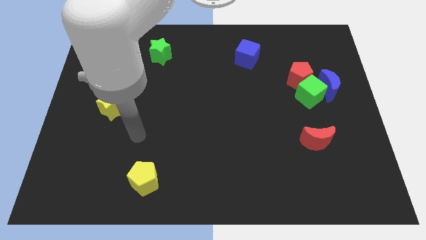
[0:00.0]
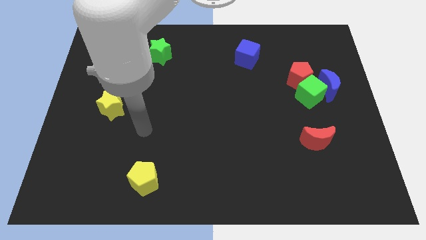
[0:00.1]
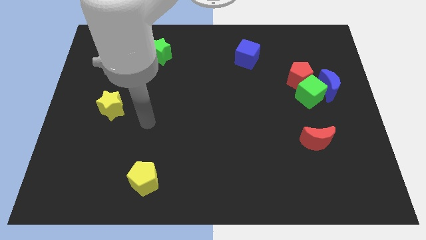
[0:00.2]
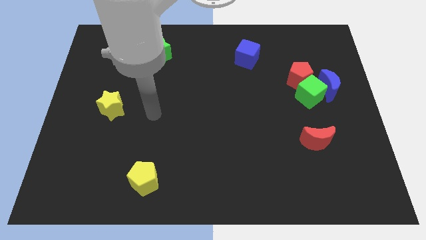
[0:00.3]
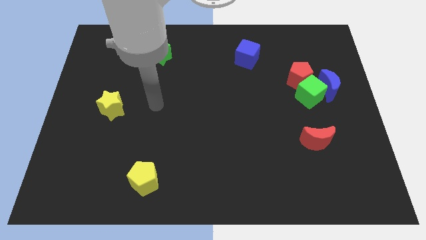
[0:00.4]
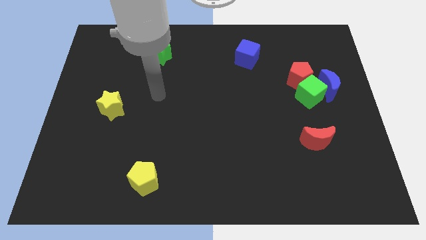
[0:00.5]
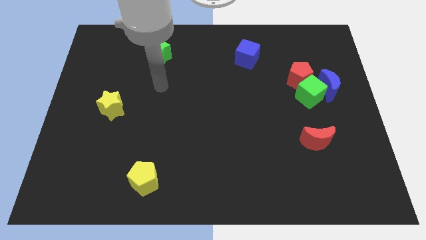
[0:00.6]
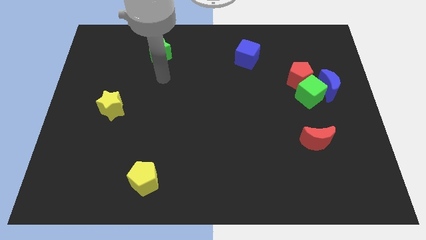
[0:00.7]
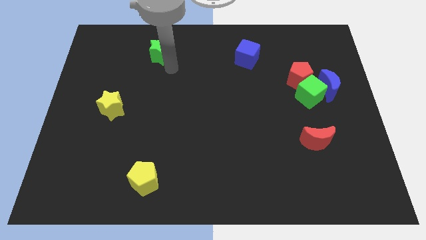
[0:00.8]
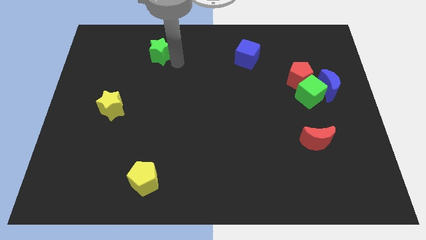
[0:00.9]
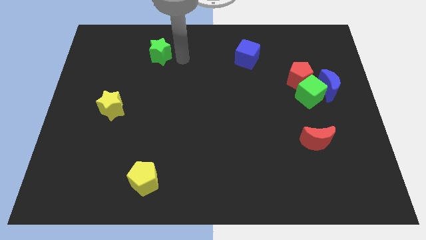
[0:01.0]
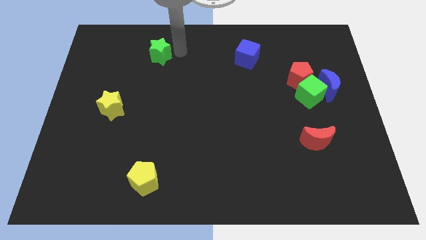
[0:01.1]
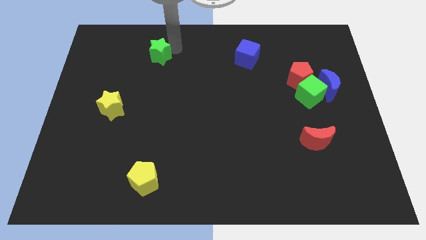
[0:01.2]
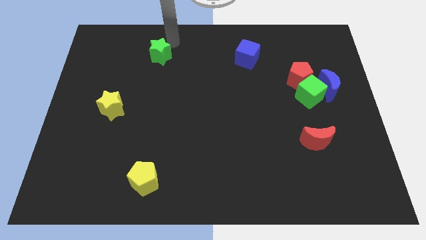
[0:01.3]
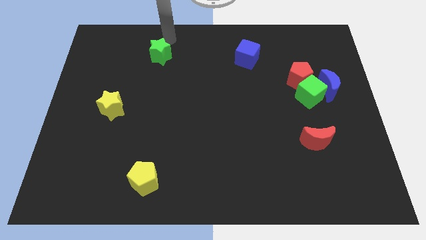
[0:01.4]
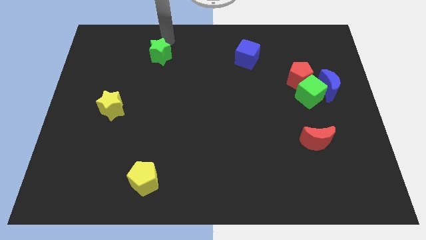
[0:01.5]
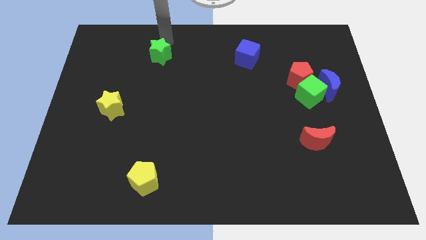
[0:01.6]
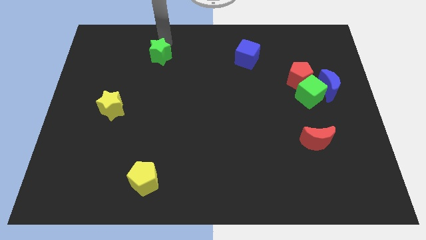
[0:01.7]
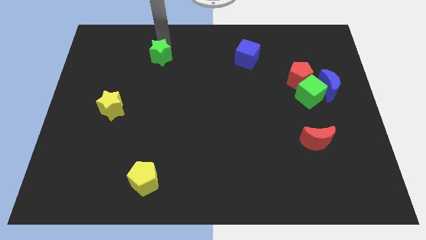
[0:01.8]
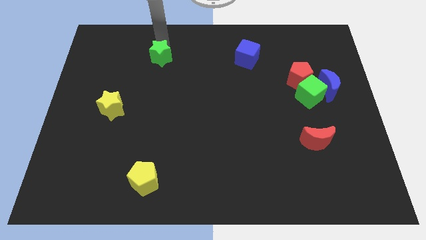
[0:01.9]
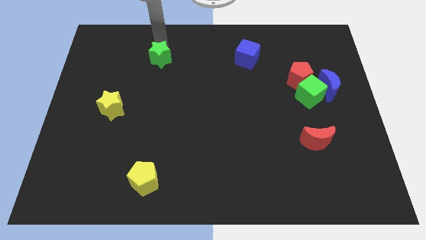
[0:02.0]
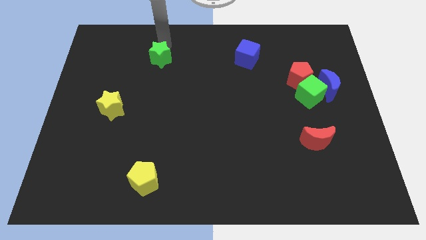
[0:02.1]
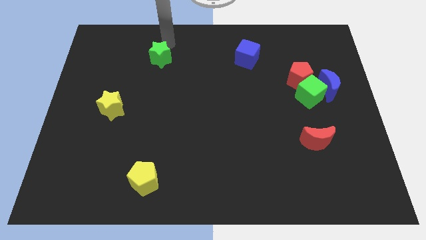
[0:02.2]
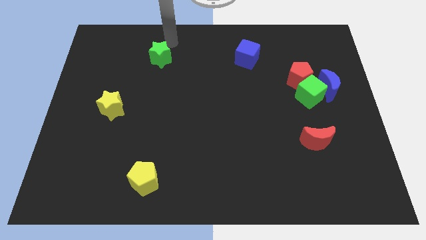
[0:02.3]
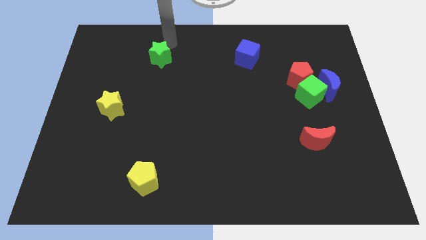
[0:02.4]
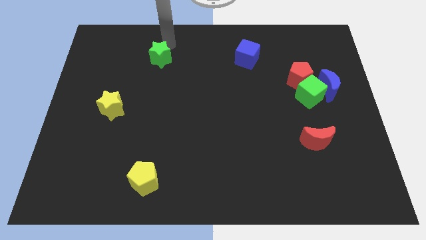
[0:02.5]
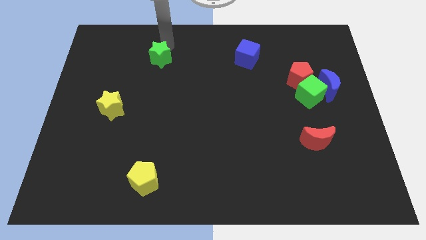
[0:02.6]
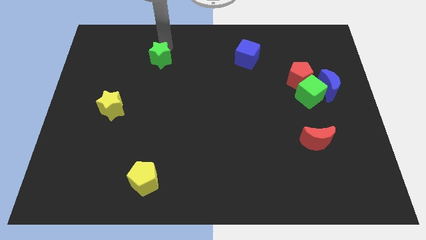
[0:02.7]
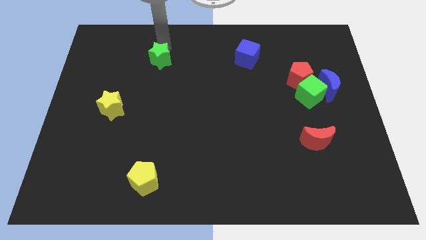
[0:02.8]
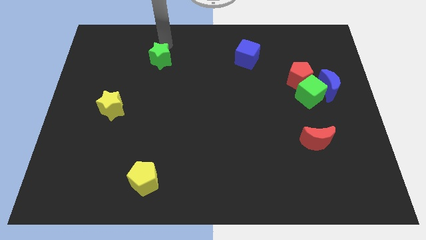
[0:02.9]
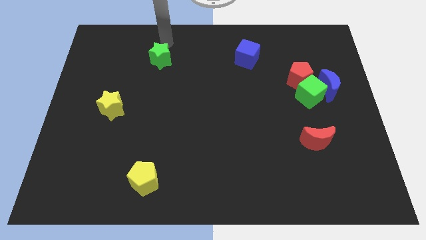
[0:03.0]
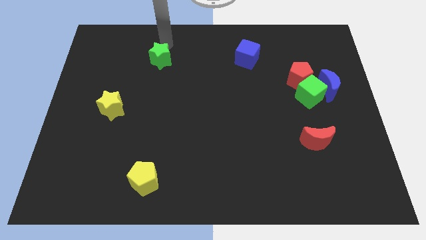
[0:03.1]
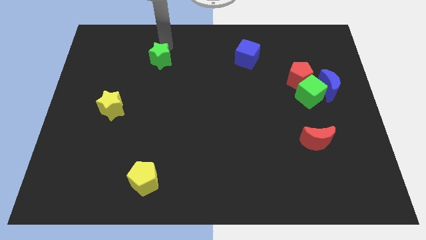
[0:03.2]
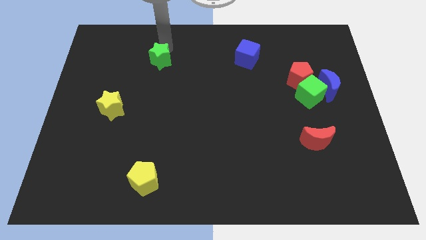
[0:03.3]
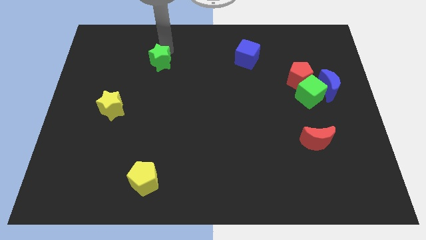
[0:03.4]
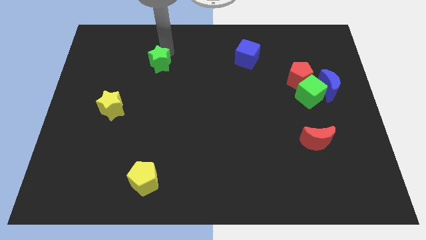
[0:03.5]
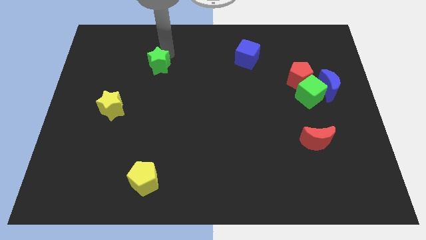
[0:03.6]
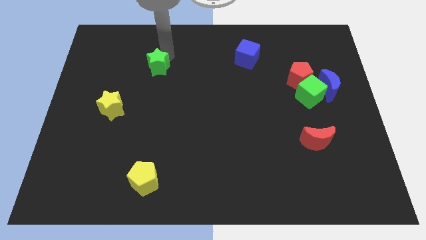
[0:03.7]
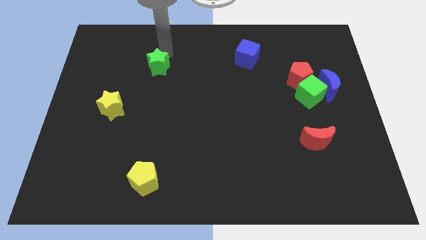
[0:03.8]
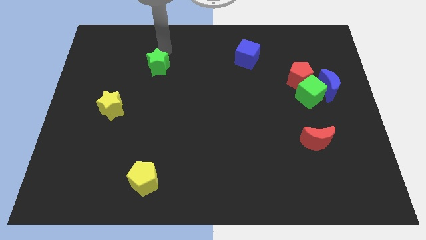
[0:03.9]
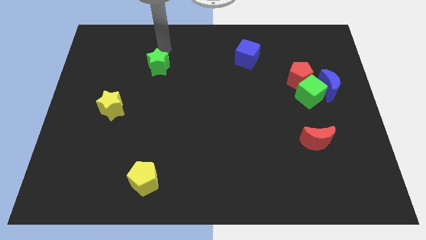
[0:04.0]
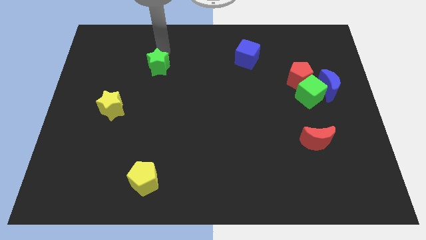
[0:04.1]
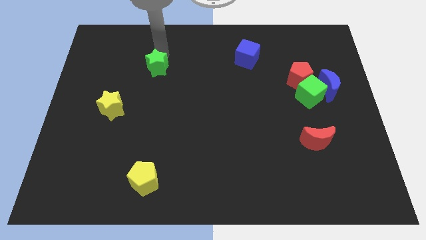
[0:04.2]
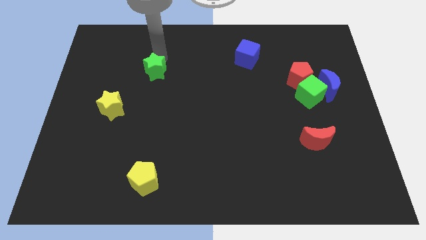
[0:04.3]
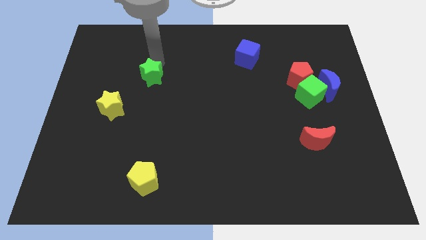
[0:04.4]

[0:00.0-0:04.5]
move the green star downwards a bit

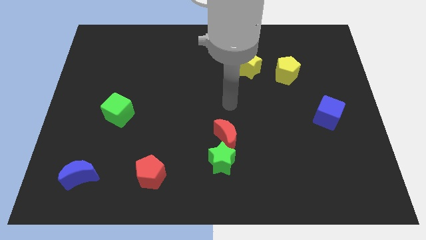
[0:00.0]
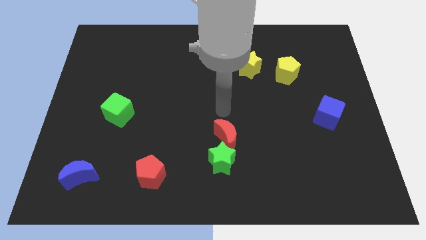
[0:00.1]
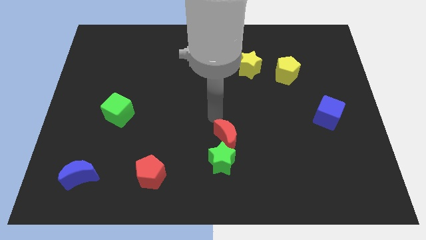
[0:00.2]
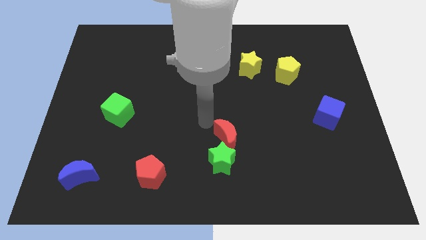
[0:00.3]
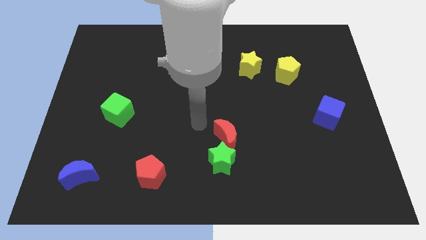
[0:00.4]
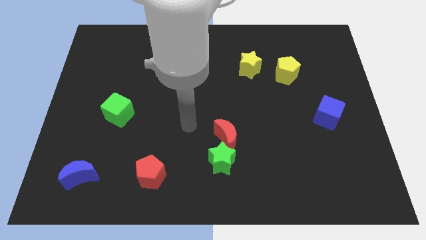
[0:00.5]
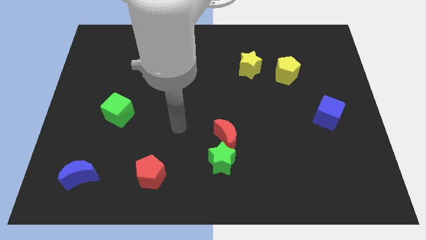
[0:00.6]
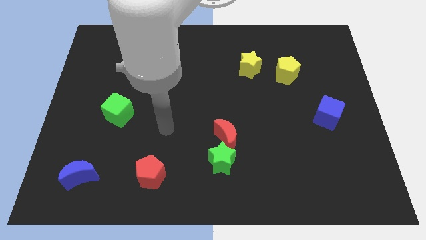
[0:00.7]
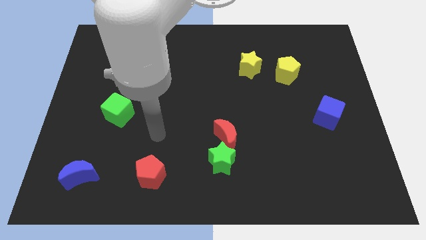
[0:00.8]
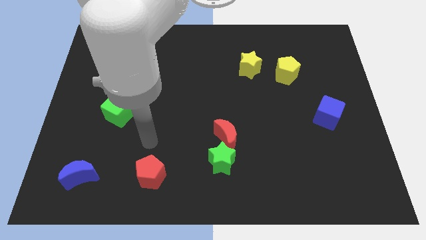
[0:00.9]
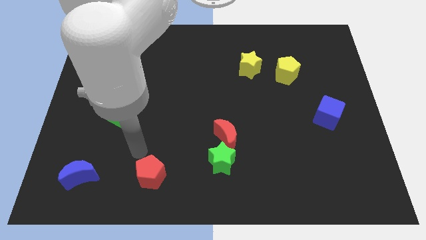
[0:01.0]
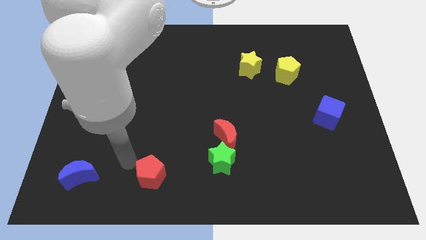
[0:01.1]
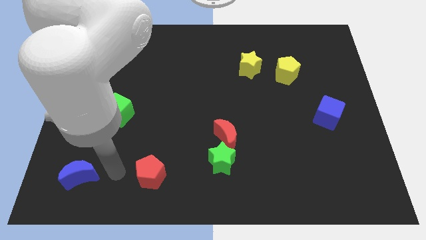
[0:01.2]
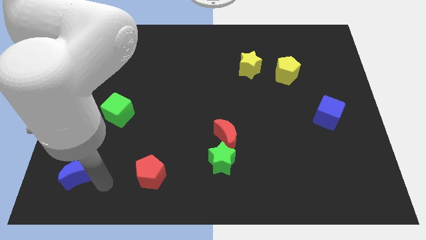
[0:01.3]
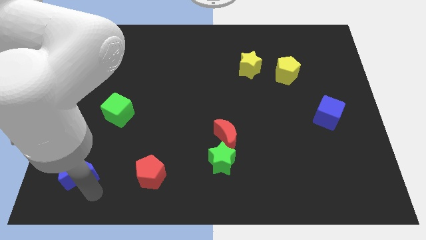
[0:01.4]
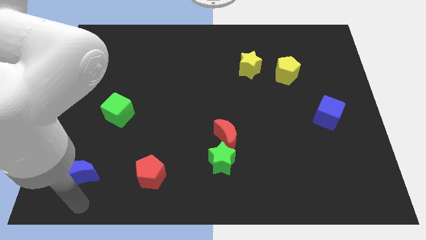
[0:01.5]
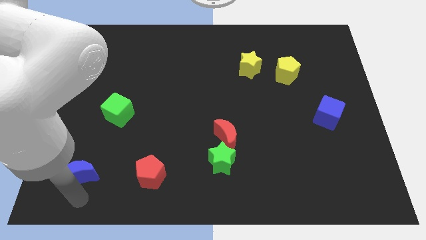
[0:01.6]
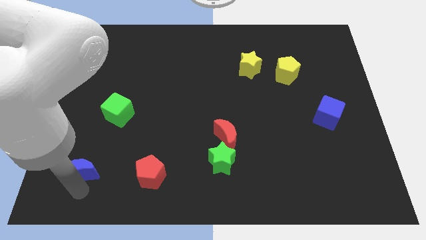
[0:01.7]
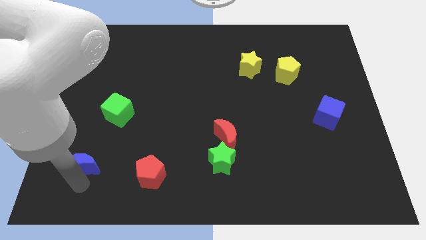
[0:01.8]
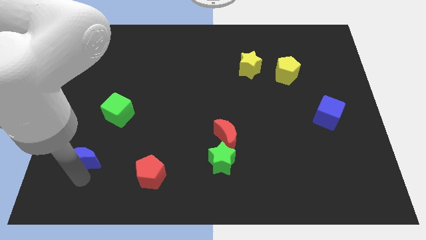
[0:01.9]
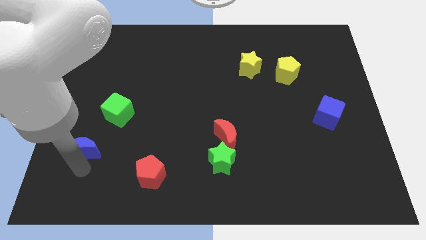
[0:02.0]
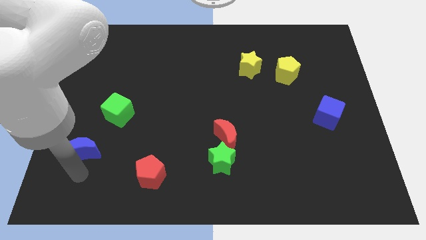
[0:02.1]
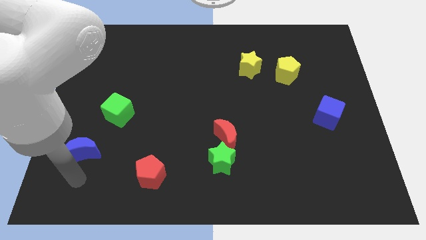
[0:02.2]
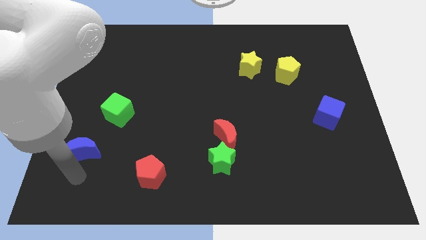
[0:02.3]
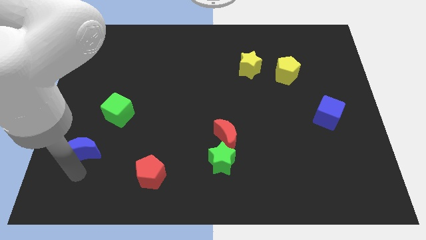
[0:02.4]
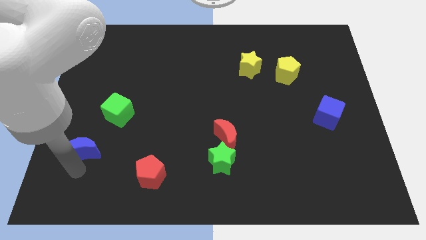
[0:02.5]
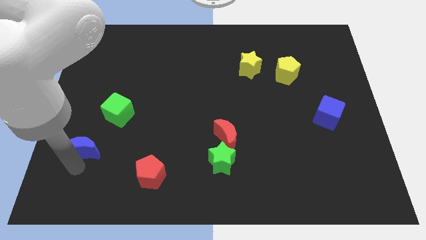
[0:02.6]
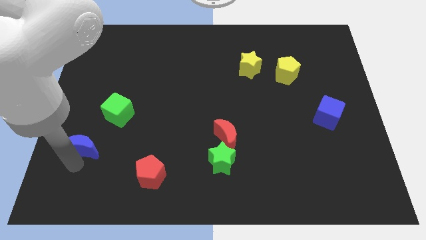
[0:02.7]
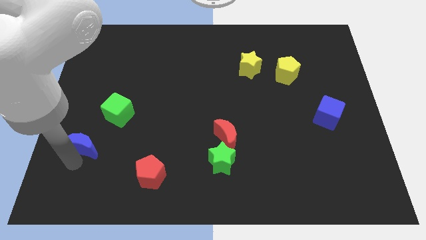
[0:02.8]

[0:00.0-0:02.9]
slightly move the blue moon upwards

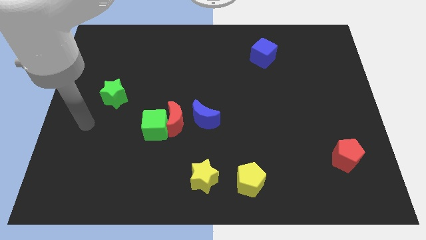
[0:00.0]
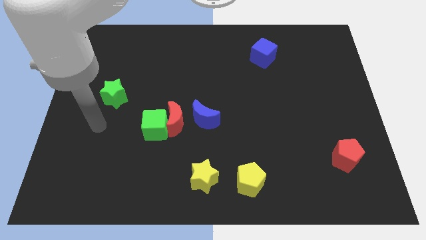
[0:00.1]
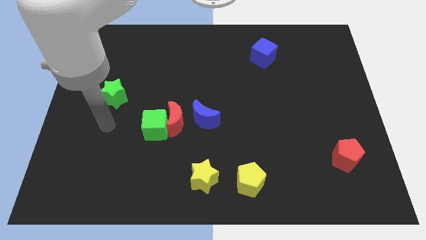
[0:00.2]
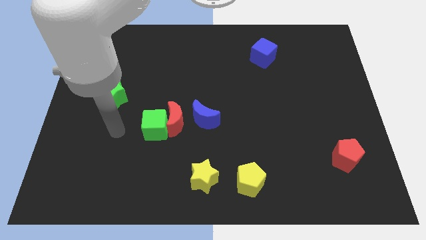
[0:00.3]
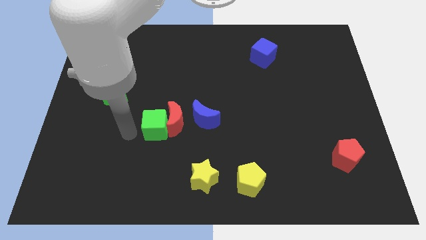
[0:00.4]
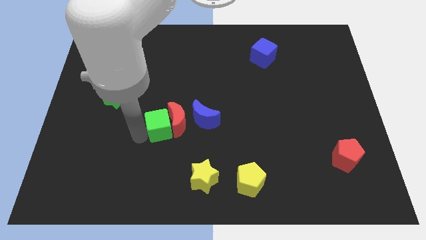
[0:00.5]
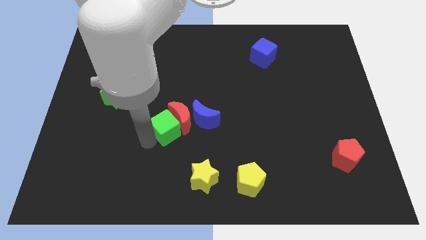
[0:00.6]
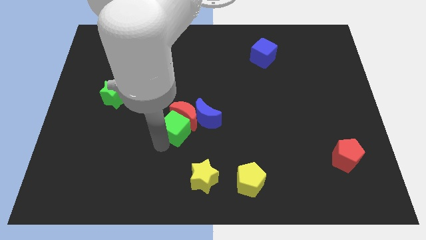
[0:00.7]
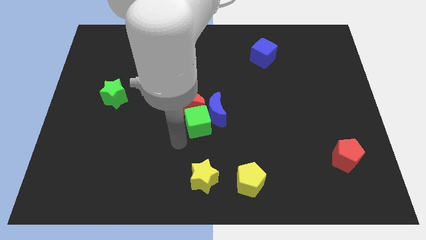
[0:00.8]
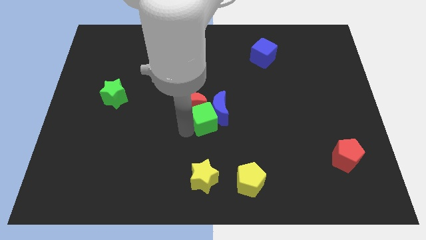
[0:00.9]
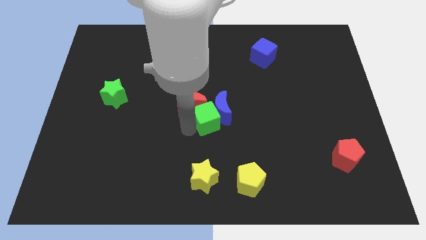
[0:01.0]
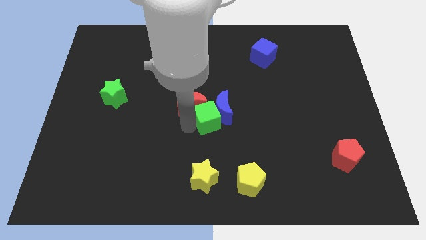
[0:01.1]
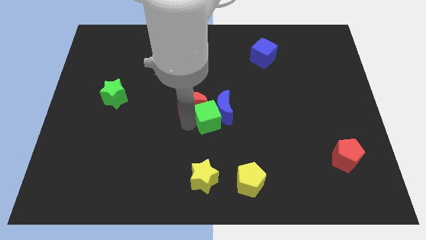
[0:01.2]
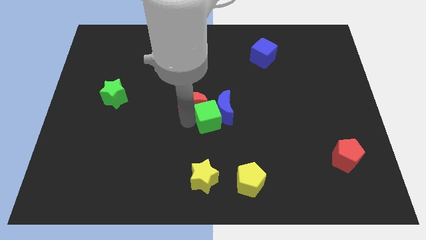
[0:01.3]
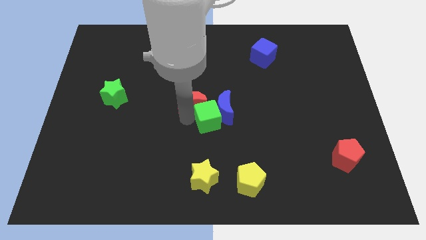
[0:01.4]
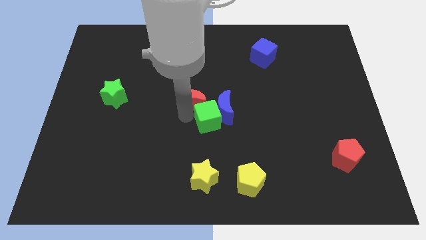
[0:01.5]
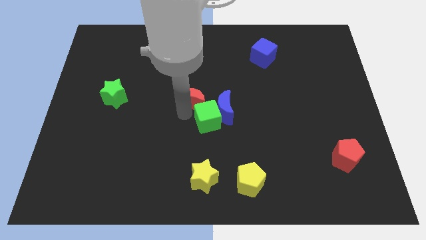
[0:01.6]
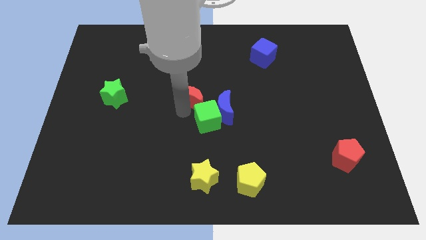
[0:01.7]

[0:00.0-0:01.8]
slightly move the red moon upwards and to the right
